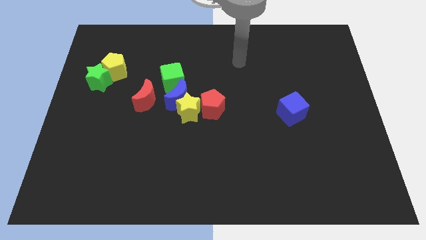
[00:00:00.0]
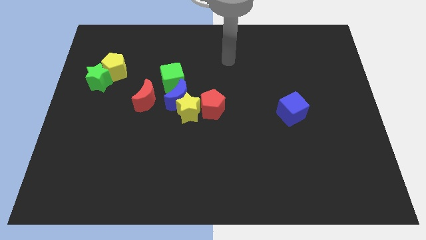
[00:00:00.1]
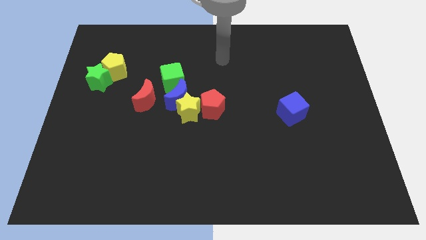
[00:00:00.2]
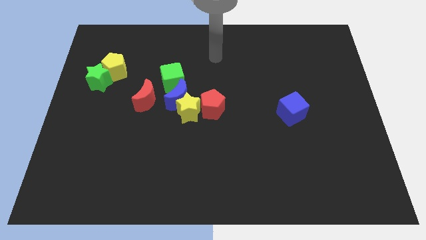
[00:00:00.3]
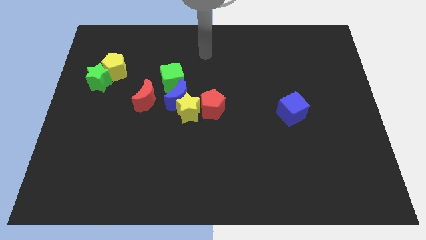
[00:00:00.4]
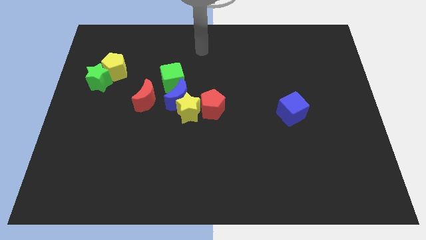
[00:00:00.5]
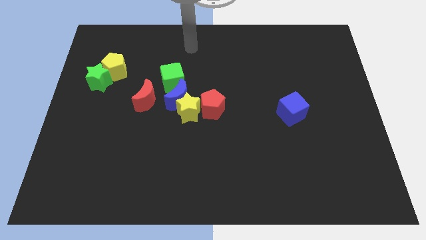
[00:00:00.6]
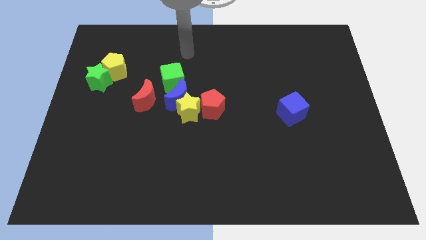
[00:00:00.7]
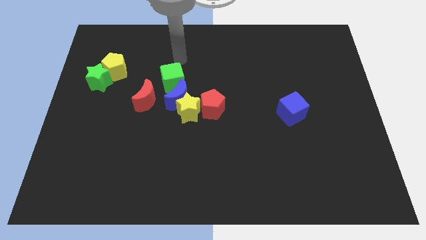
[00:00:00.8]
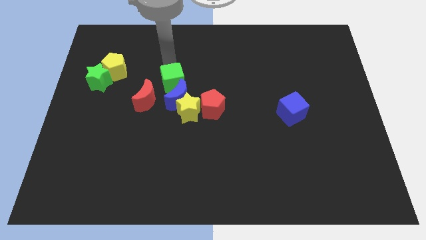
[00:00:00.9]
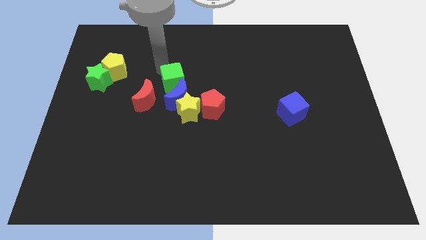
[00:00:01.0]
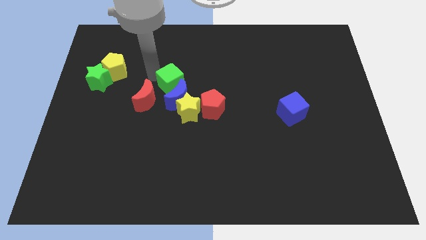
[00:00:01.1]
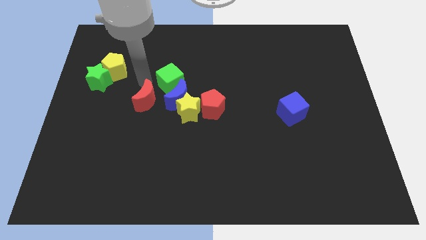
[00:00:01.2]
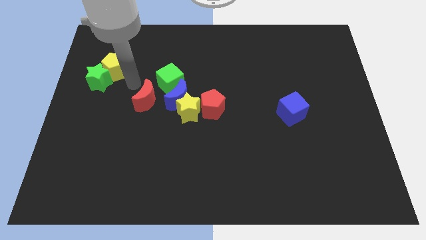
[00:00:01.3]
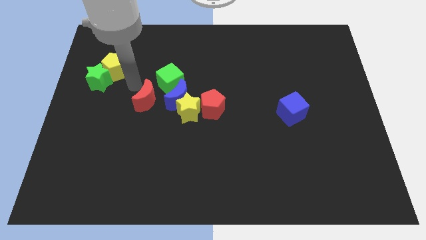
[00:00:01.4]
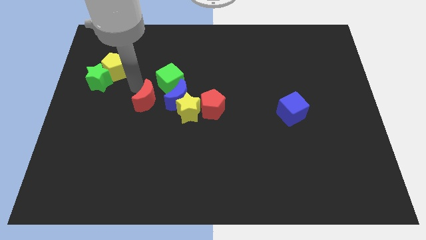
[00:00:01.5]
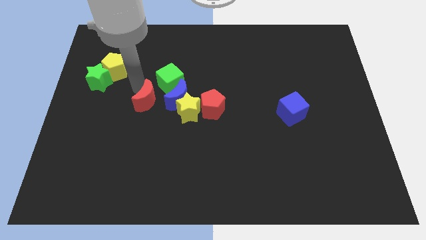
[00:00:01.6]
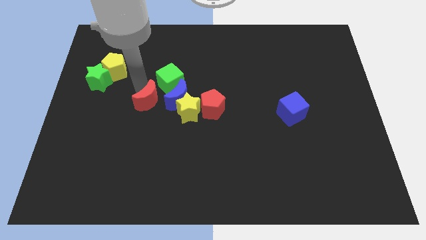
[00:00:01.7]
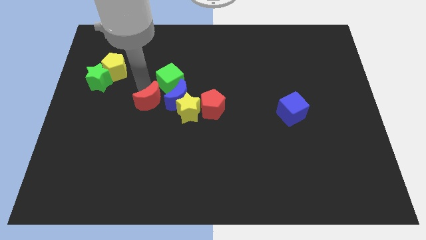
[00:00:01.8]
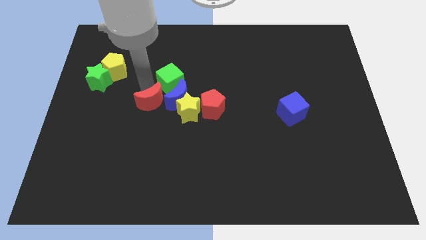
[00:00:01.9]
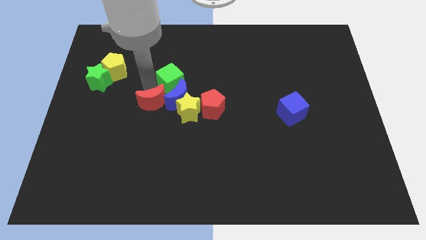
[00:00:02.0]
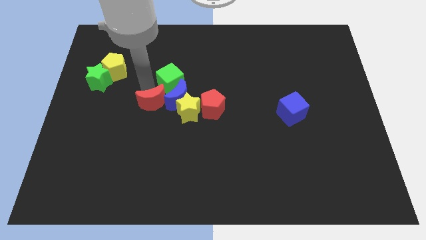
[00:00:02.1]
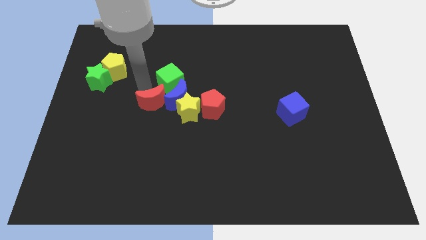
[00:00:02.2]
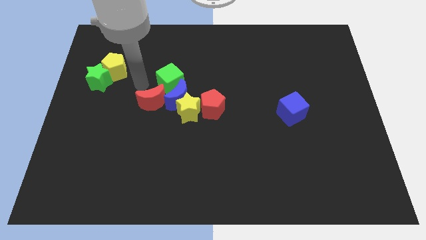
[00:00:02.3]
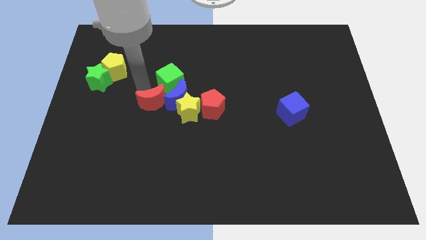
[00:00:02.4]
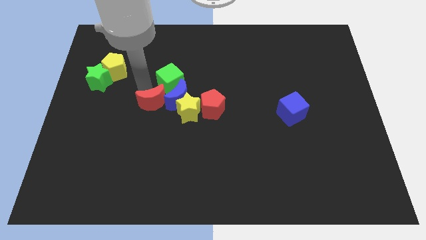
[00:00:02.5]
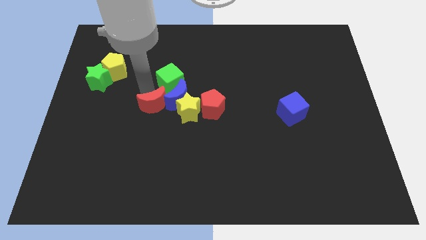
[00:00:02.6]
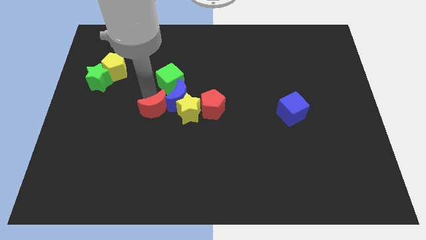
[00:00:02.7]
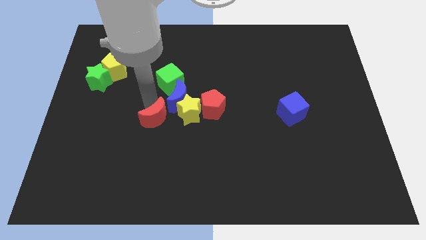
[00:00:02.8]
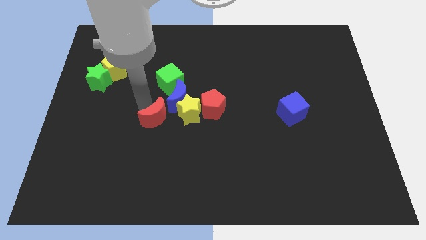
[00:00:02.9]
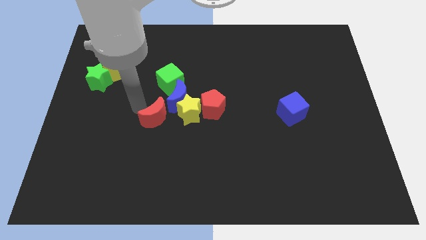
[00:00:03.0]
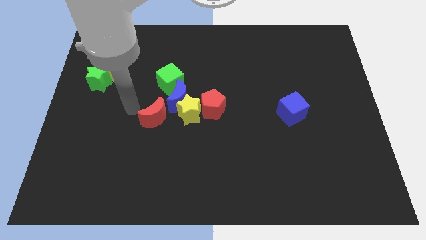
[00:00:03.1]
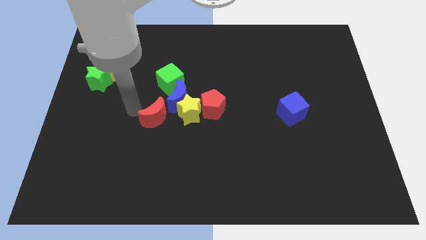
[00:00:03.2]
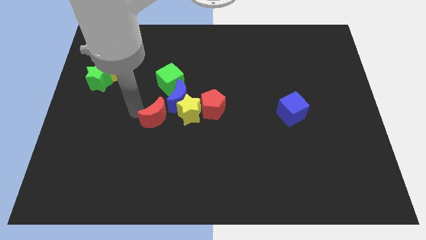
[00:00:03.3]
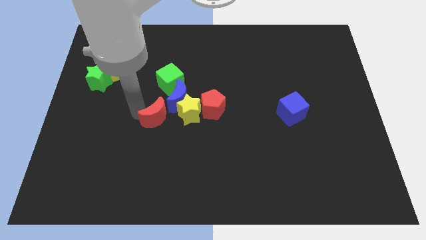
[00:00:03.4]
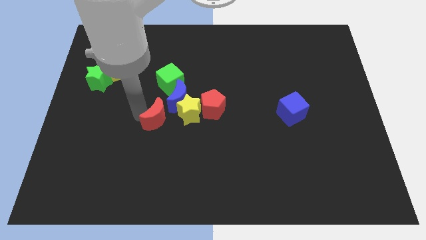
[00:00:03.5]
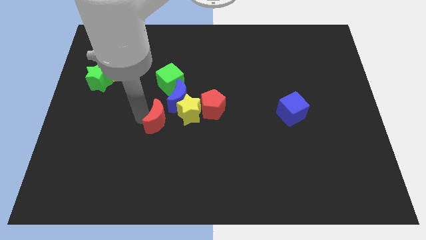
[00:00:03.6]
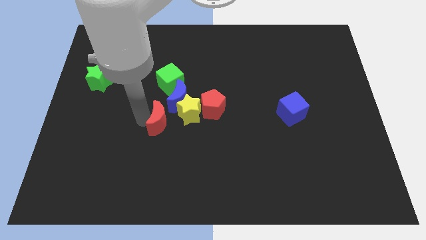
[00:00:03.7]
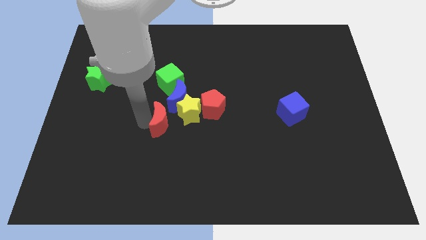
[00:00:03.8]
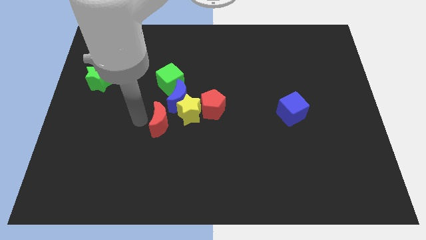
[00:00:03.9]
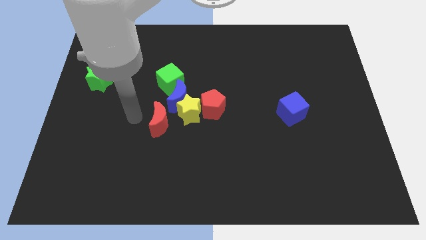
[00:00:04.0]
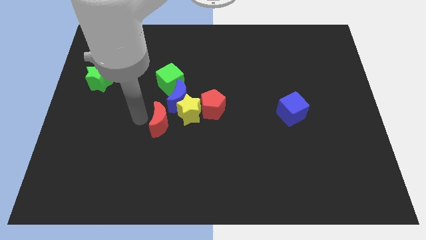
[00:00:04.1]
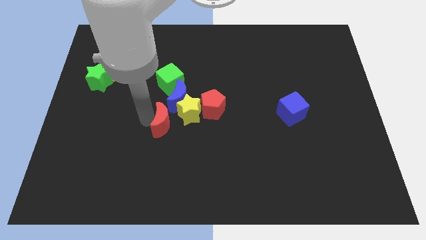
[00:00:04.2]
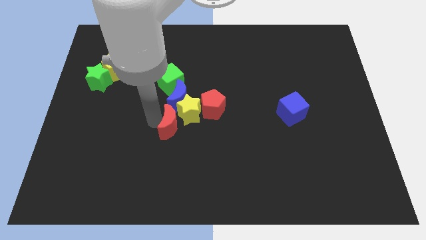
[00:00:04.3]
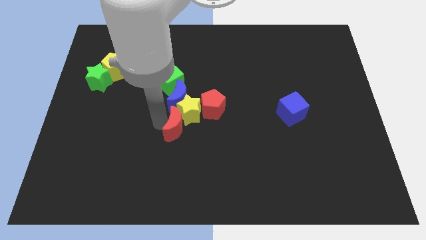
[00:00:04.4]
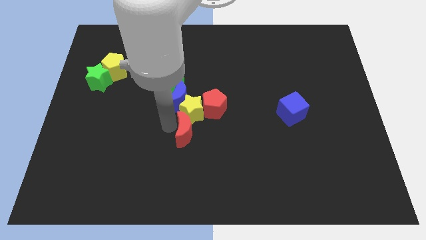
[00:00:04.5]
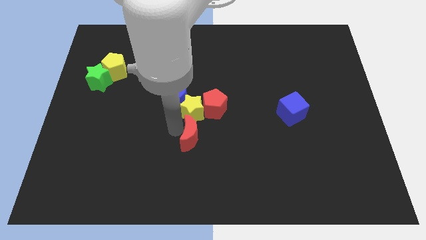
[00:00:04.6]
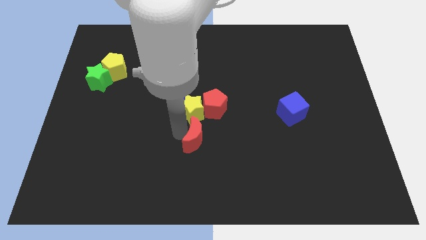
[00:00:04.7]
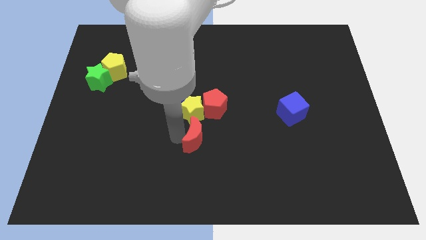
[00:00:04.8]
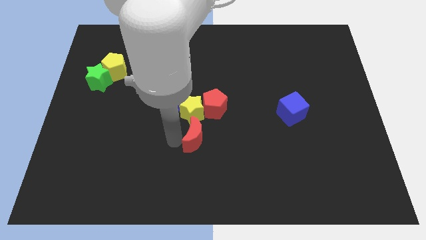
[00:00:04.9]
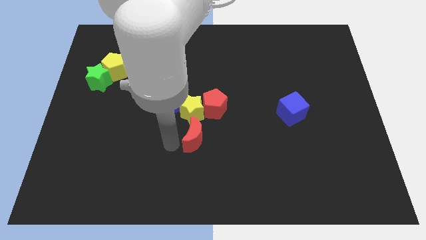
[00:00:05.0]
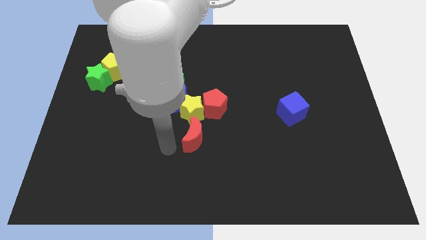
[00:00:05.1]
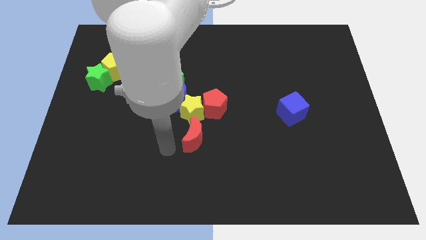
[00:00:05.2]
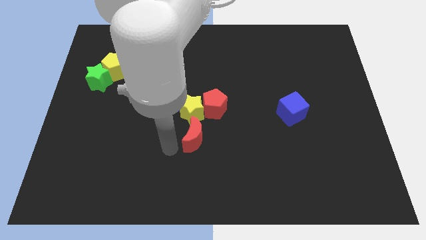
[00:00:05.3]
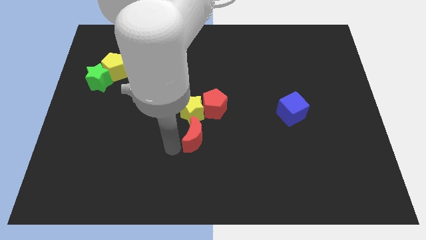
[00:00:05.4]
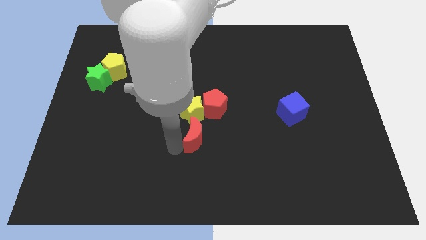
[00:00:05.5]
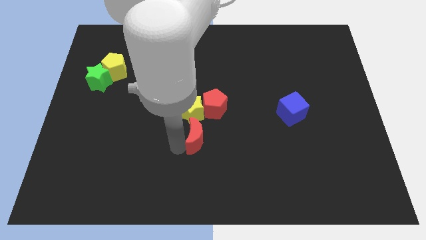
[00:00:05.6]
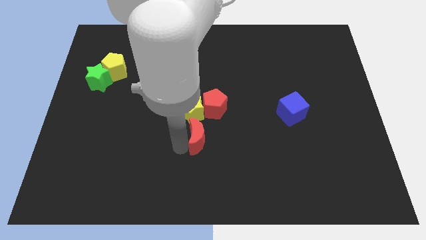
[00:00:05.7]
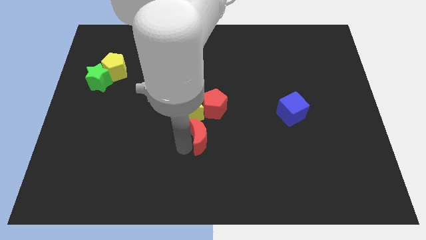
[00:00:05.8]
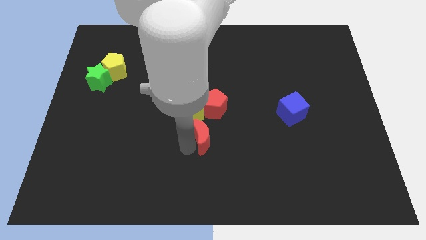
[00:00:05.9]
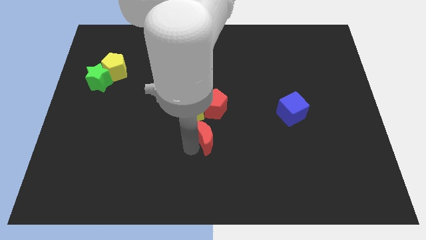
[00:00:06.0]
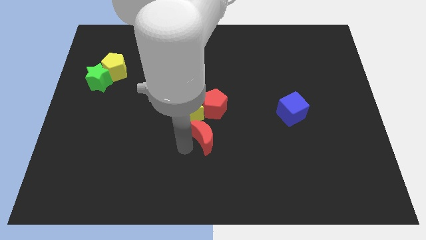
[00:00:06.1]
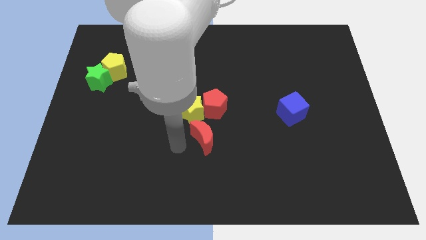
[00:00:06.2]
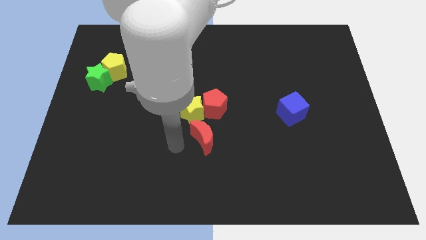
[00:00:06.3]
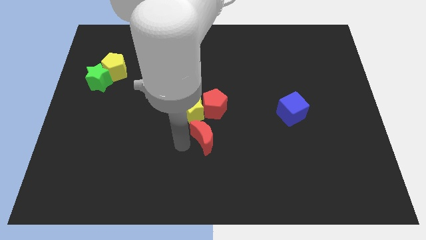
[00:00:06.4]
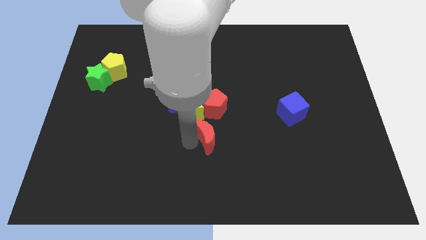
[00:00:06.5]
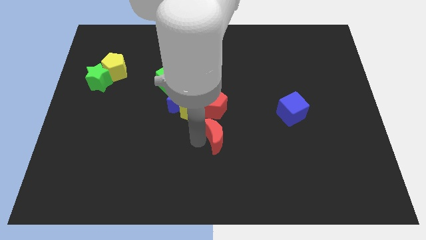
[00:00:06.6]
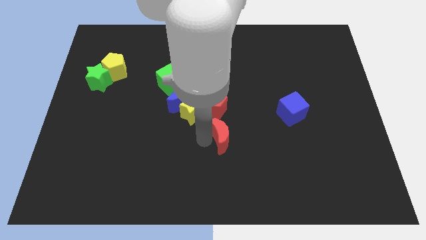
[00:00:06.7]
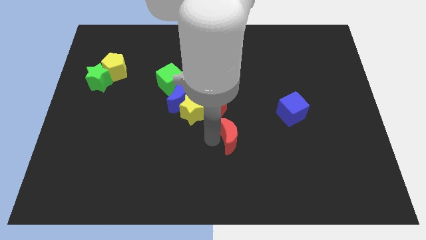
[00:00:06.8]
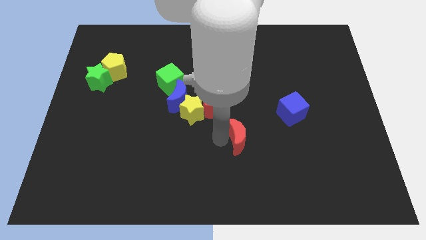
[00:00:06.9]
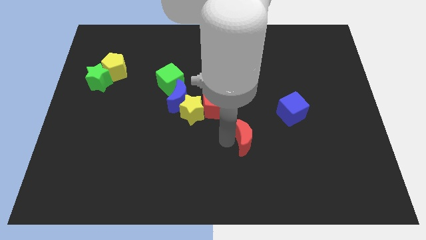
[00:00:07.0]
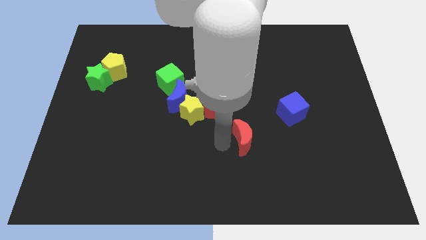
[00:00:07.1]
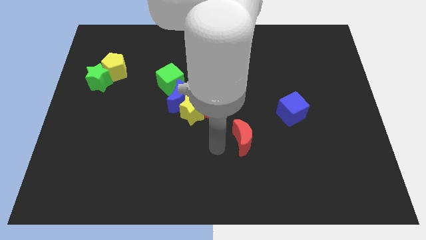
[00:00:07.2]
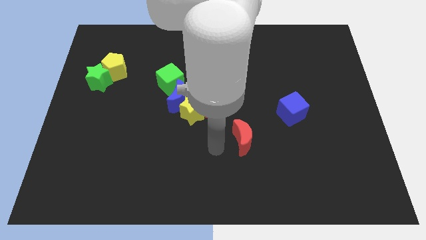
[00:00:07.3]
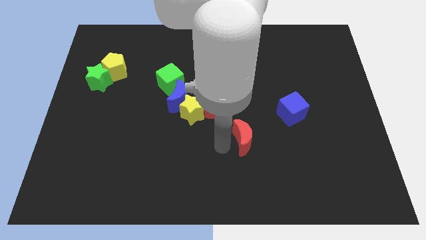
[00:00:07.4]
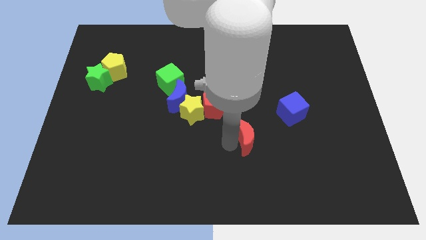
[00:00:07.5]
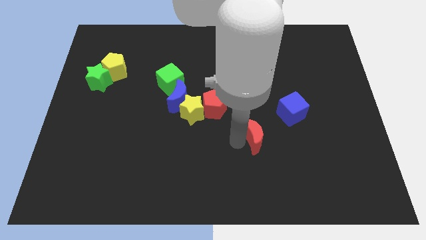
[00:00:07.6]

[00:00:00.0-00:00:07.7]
put the red moon to the bottom left of the blue cube
